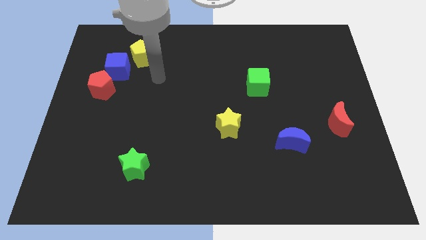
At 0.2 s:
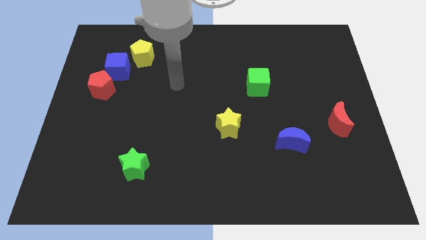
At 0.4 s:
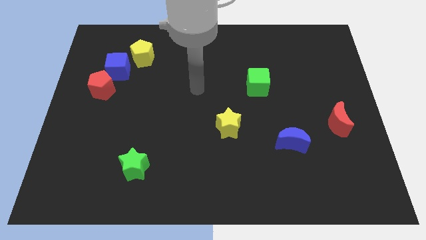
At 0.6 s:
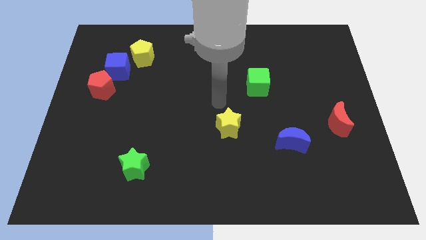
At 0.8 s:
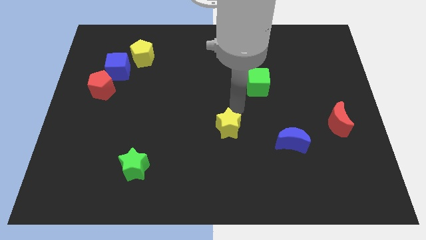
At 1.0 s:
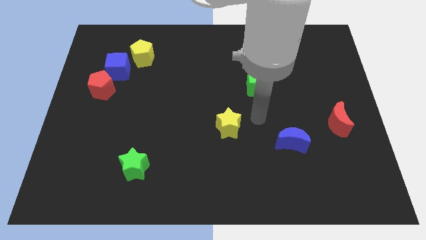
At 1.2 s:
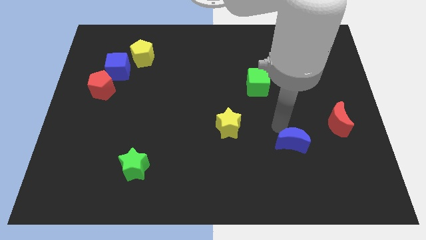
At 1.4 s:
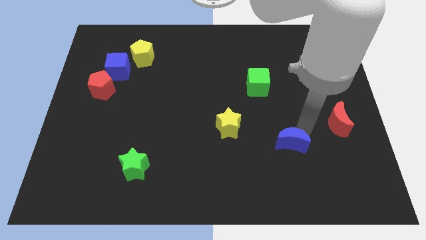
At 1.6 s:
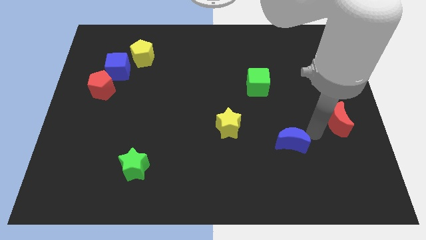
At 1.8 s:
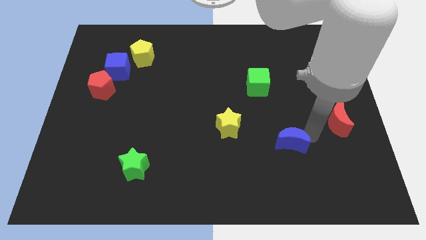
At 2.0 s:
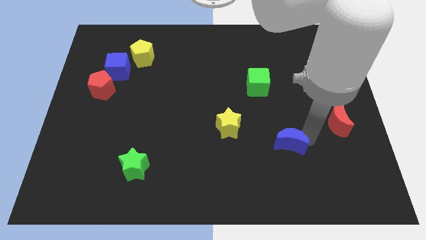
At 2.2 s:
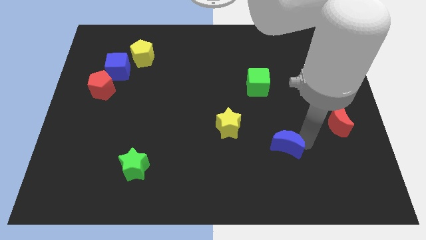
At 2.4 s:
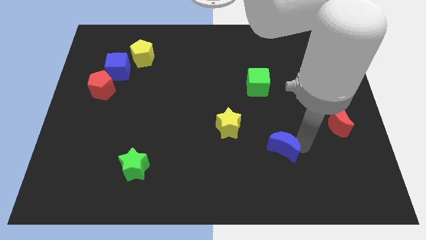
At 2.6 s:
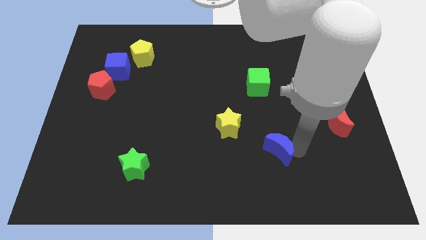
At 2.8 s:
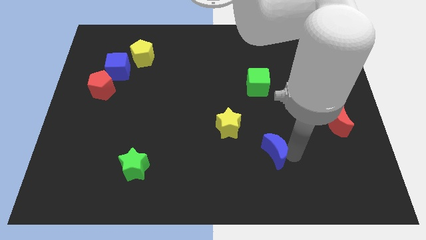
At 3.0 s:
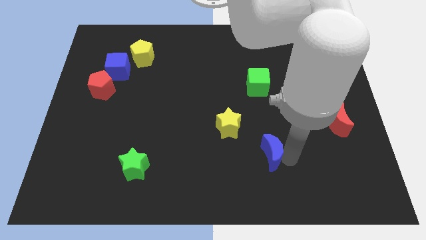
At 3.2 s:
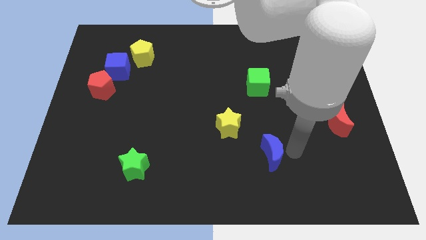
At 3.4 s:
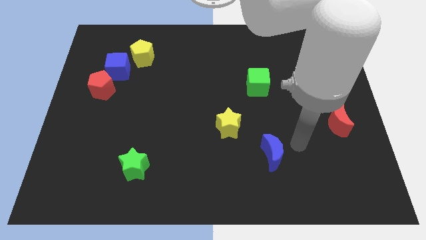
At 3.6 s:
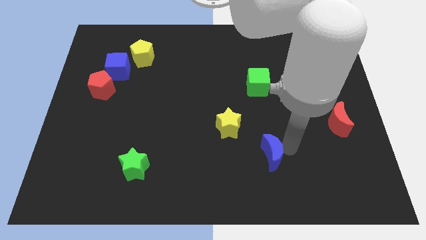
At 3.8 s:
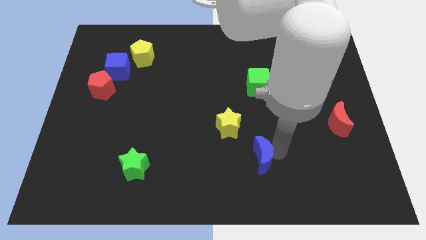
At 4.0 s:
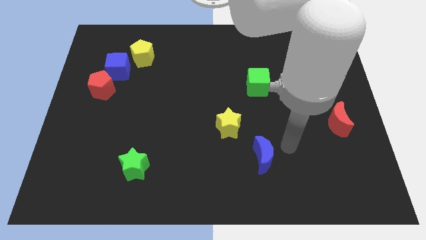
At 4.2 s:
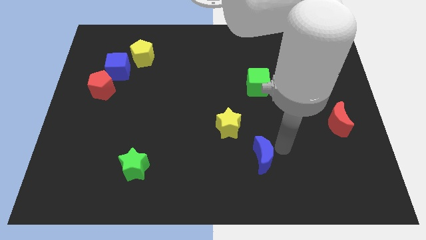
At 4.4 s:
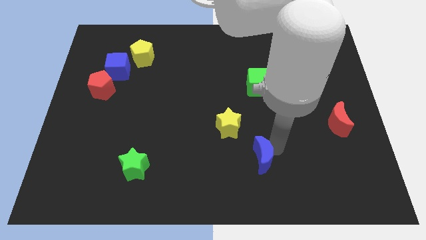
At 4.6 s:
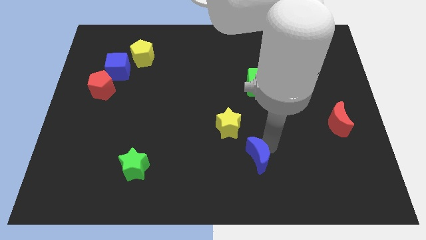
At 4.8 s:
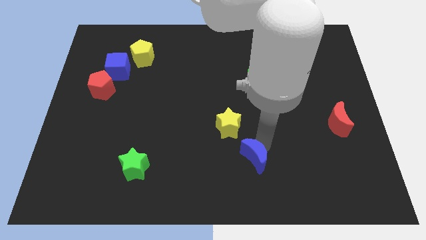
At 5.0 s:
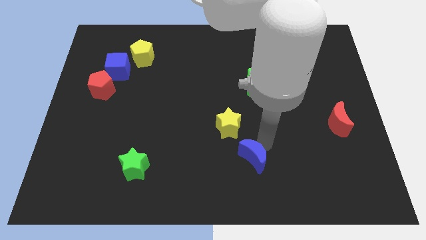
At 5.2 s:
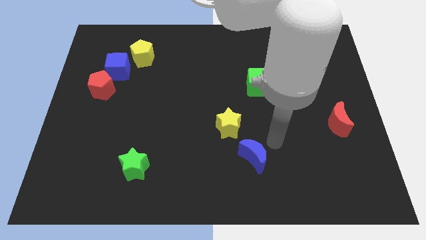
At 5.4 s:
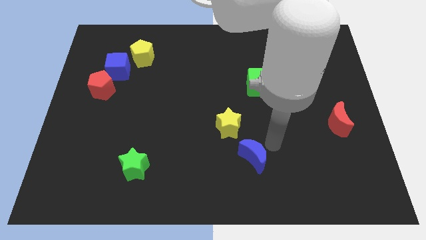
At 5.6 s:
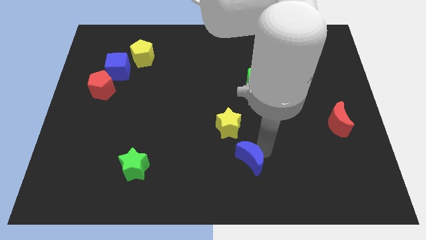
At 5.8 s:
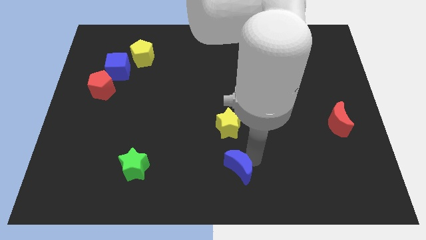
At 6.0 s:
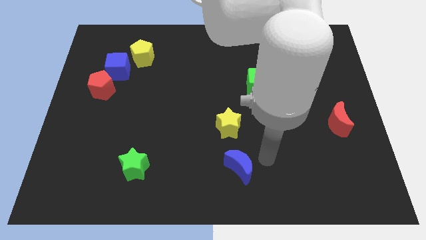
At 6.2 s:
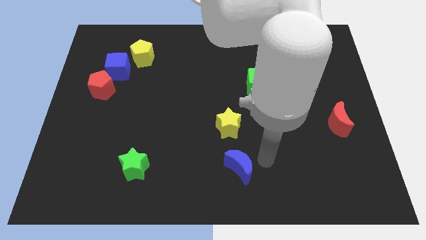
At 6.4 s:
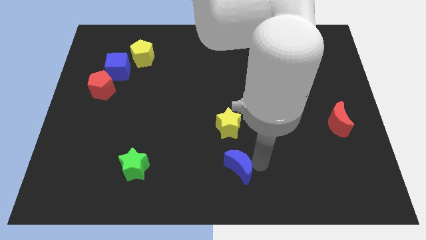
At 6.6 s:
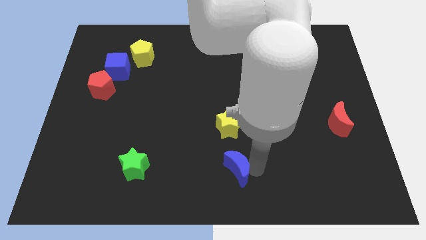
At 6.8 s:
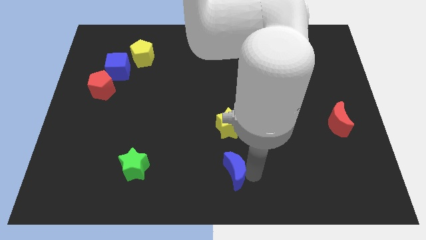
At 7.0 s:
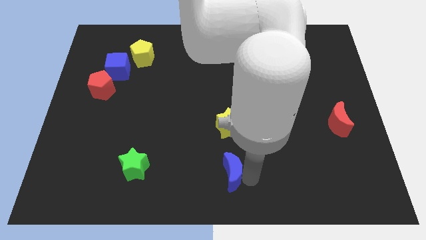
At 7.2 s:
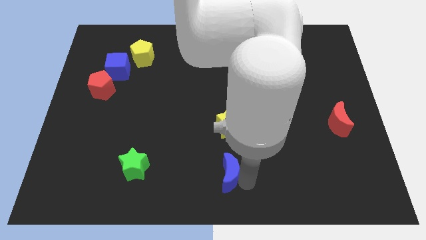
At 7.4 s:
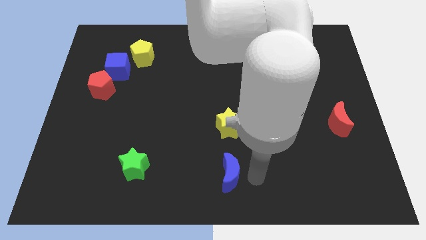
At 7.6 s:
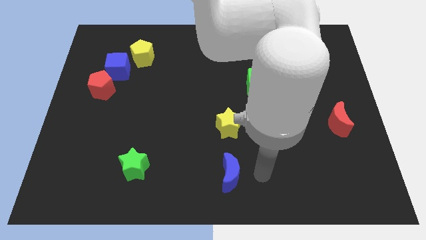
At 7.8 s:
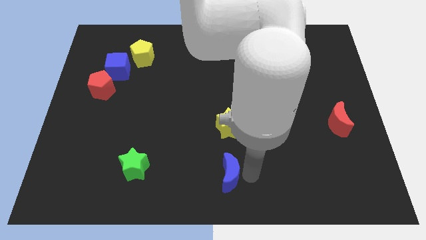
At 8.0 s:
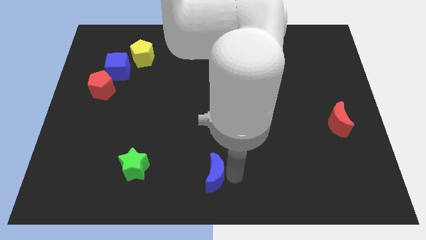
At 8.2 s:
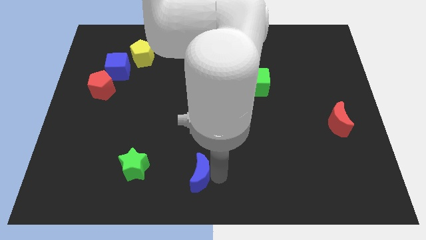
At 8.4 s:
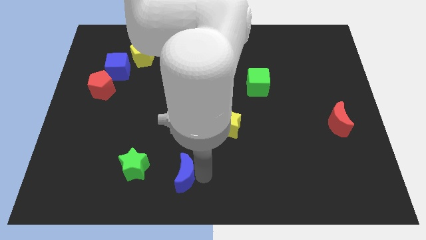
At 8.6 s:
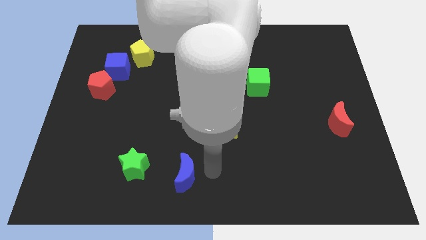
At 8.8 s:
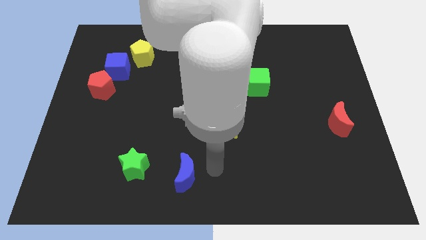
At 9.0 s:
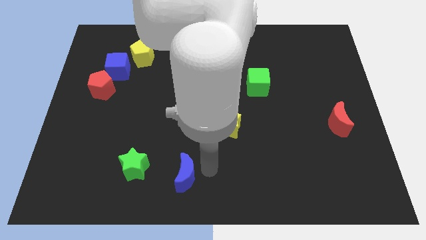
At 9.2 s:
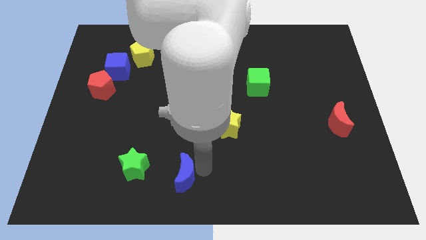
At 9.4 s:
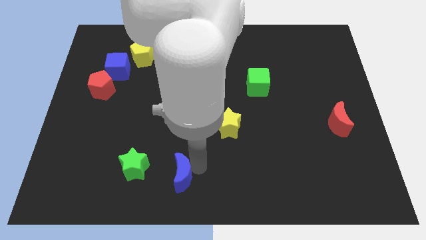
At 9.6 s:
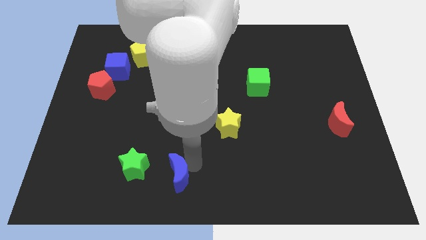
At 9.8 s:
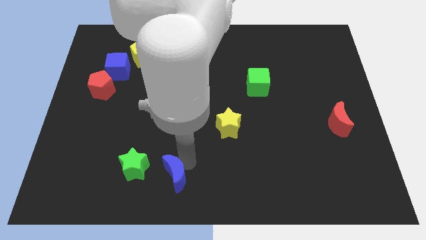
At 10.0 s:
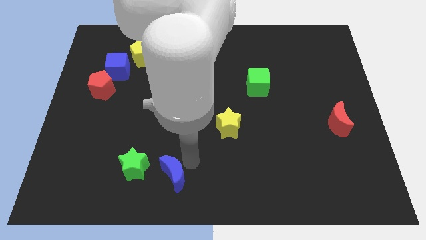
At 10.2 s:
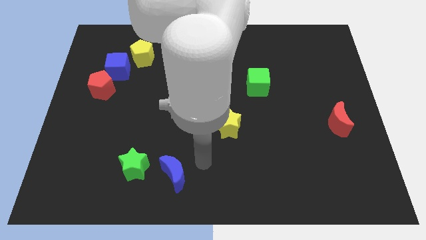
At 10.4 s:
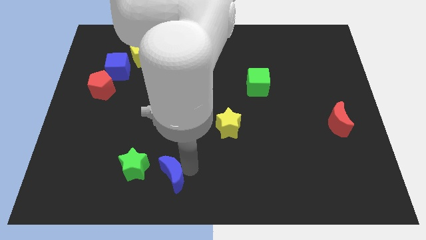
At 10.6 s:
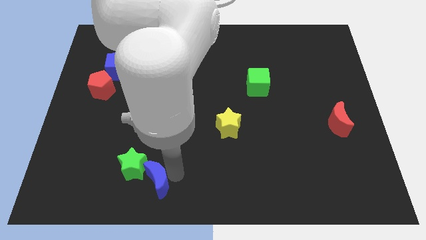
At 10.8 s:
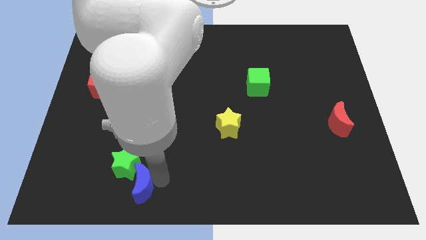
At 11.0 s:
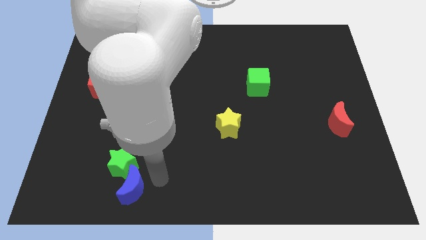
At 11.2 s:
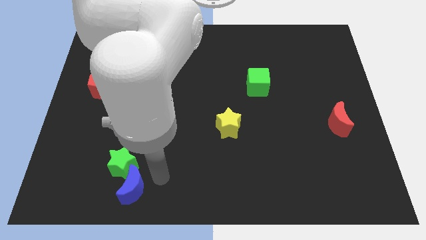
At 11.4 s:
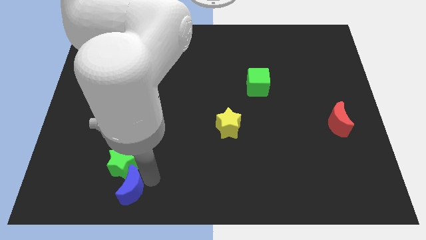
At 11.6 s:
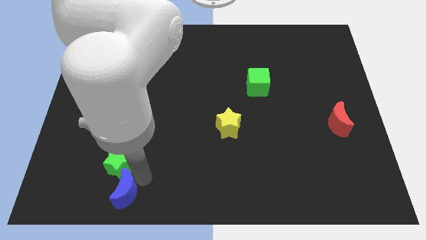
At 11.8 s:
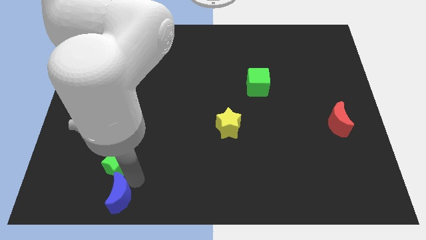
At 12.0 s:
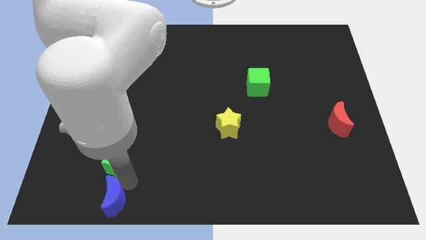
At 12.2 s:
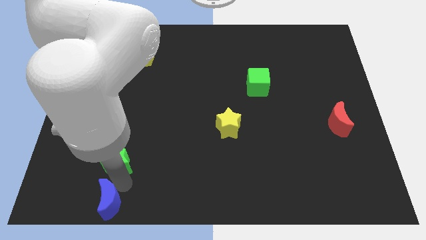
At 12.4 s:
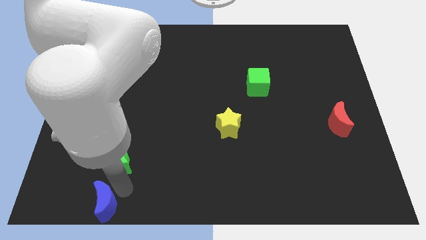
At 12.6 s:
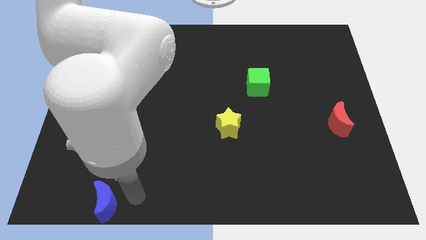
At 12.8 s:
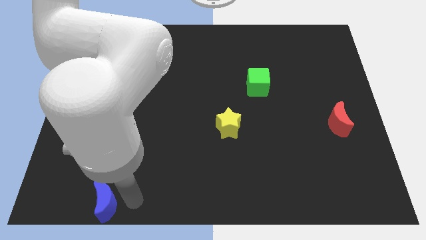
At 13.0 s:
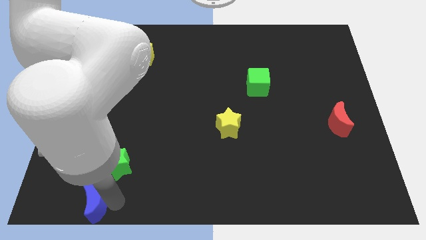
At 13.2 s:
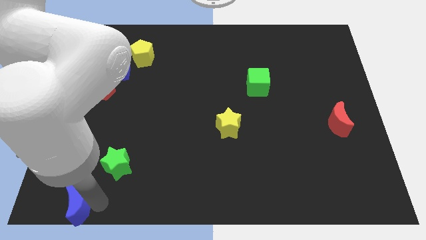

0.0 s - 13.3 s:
push the blue moon to the lower left corner

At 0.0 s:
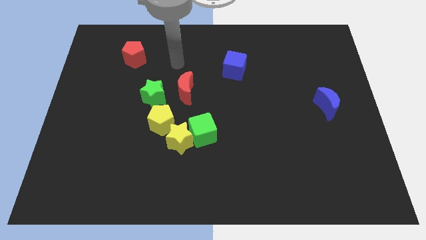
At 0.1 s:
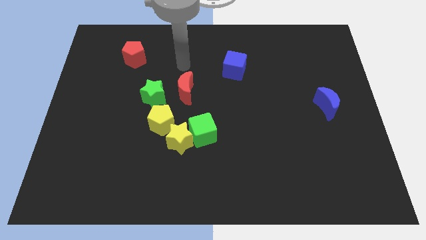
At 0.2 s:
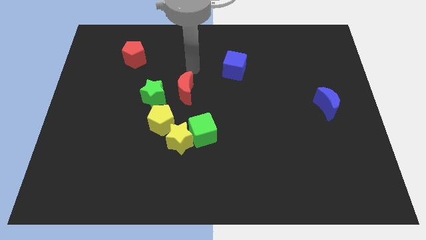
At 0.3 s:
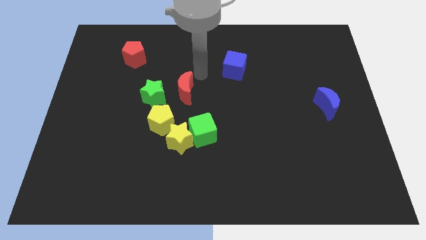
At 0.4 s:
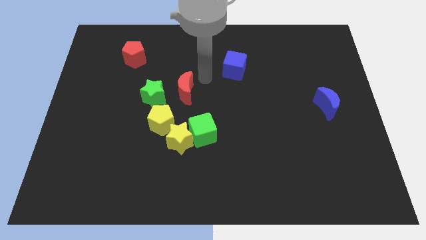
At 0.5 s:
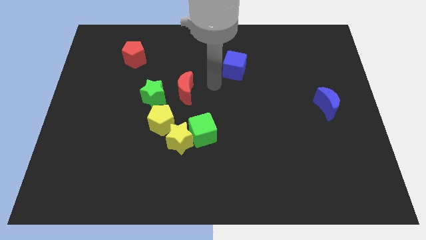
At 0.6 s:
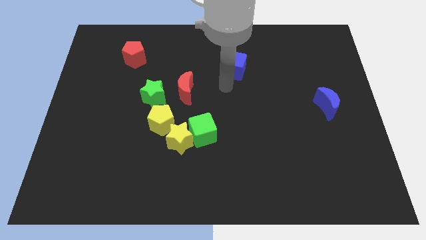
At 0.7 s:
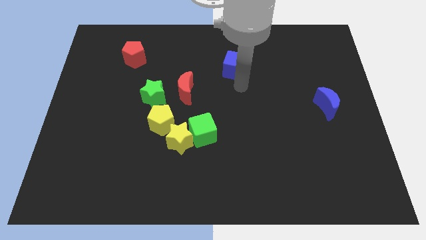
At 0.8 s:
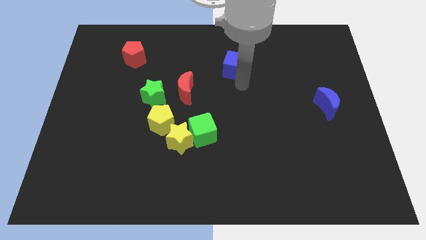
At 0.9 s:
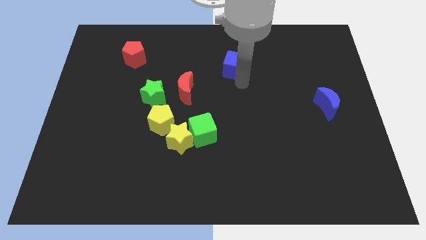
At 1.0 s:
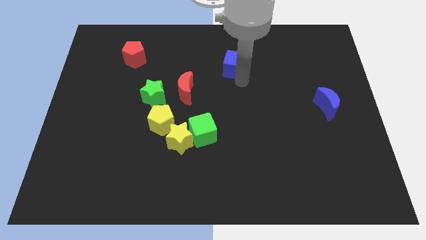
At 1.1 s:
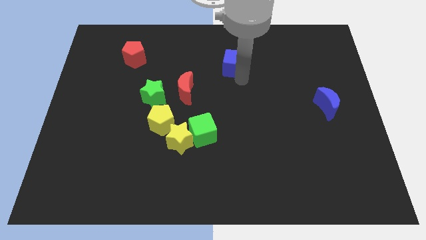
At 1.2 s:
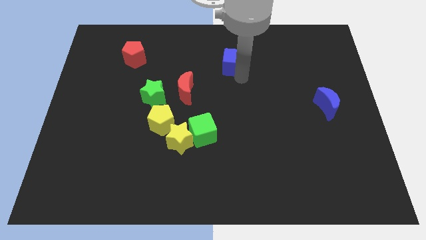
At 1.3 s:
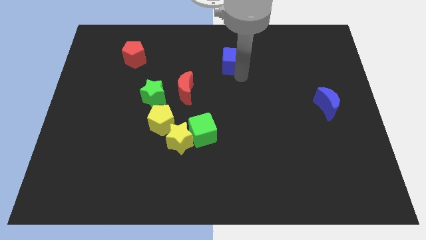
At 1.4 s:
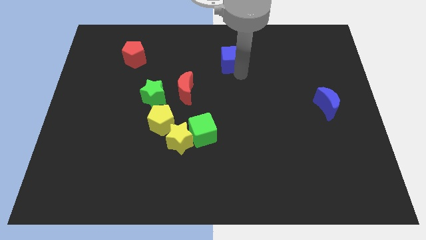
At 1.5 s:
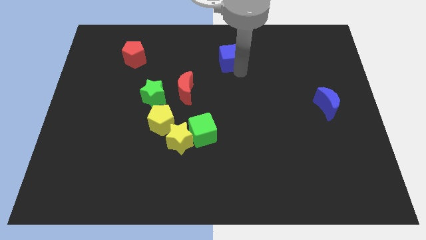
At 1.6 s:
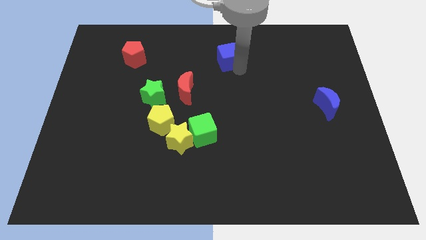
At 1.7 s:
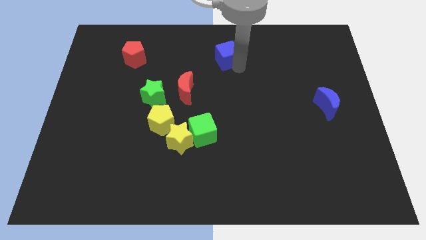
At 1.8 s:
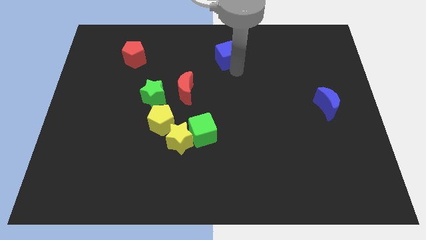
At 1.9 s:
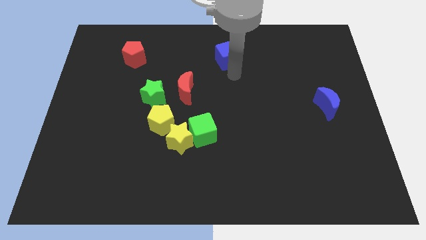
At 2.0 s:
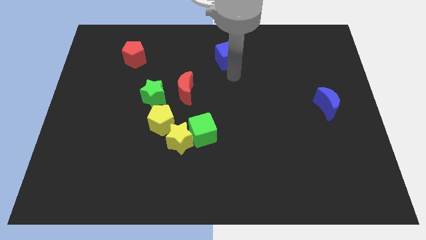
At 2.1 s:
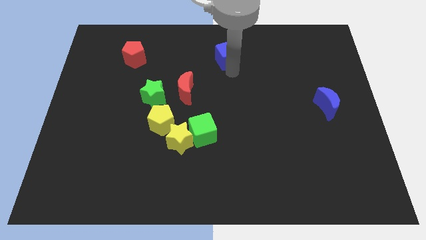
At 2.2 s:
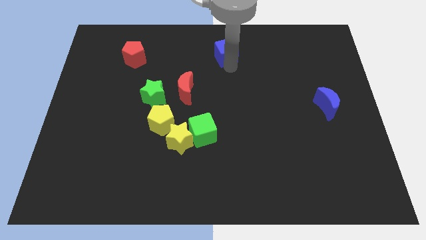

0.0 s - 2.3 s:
push the blue cube to the towards your base
